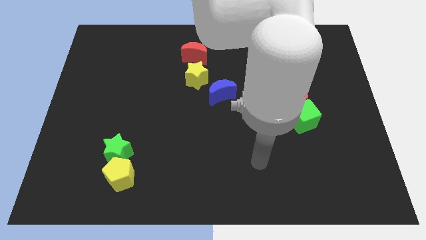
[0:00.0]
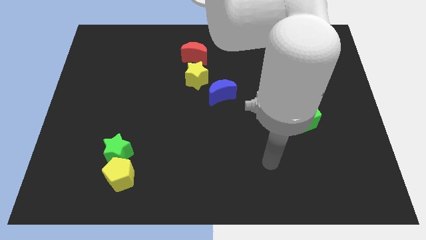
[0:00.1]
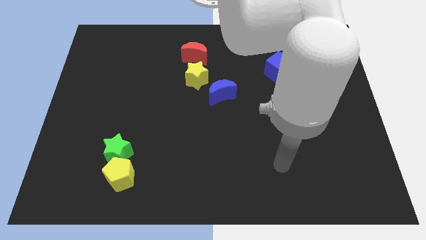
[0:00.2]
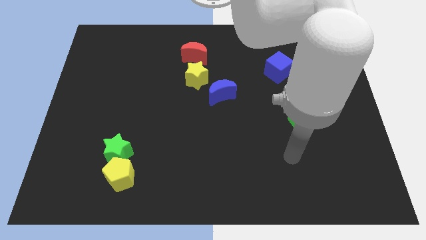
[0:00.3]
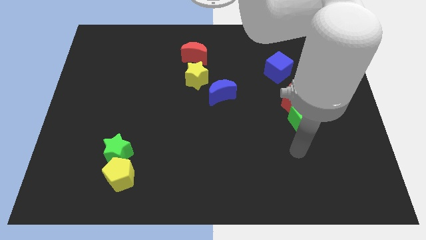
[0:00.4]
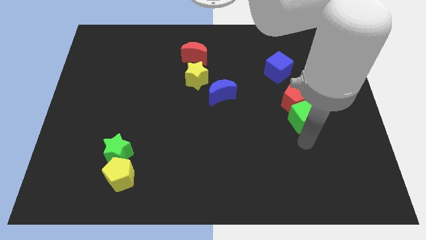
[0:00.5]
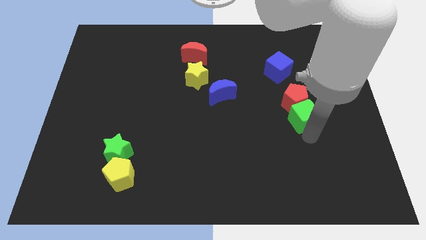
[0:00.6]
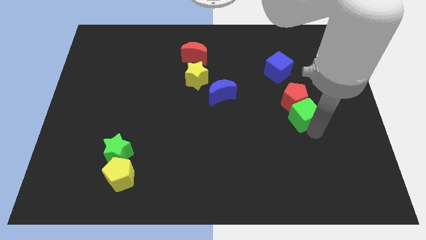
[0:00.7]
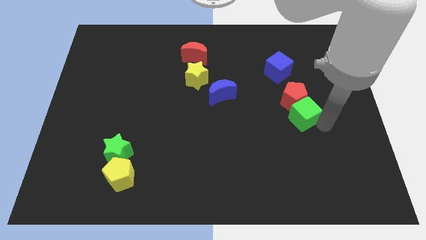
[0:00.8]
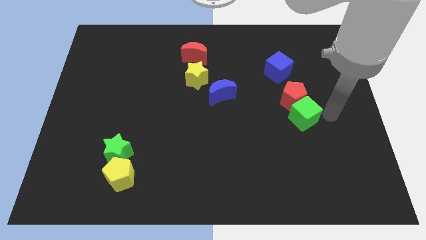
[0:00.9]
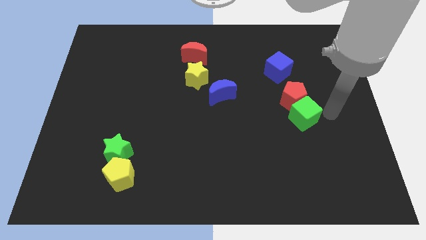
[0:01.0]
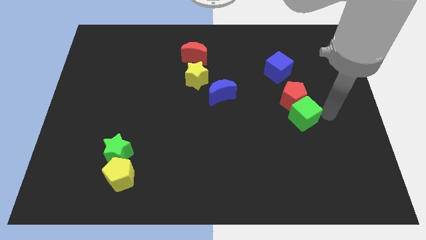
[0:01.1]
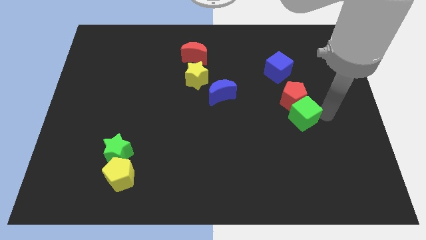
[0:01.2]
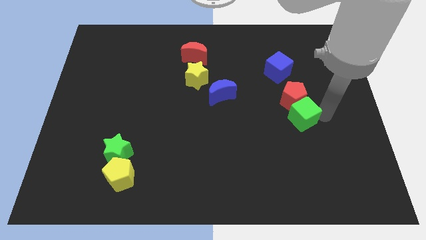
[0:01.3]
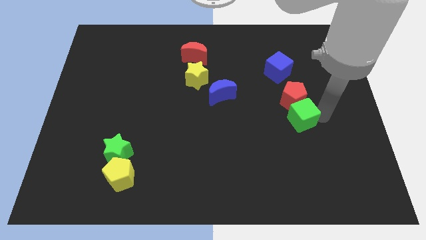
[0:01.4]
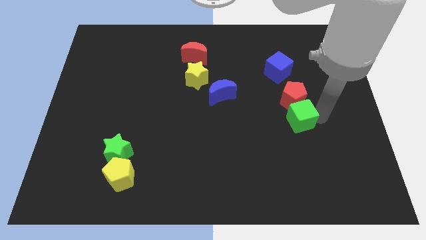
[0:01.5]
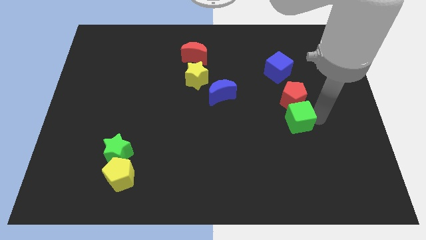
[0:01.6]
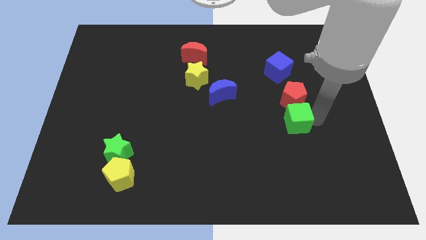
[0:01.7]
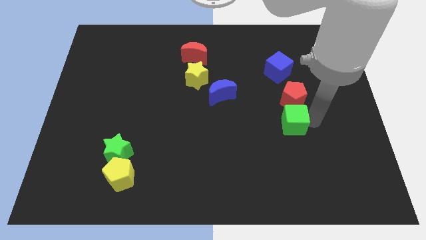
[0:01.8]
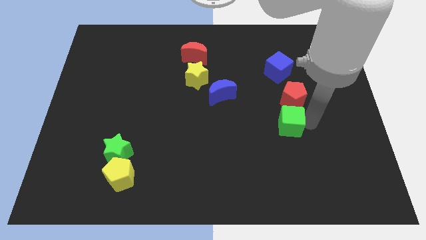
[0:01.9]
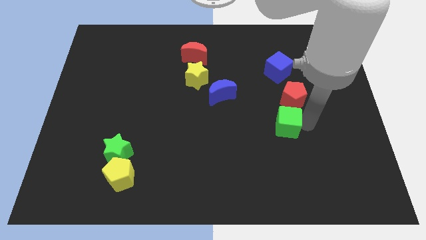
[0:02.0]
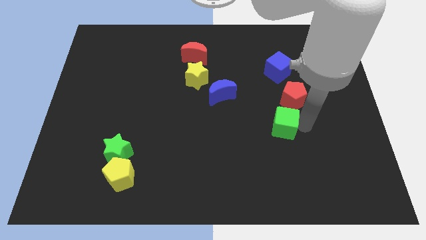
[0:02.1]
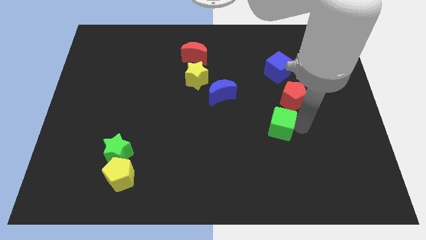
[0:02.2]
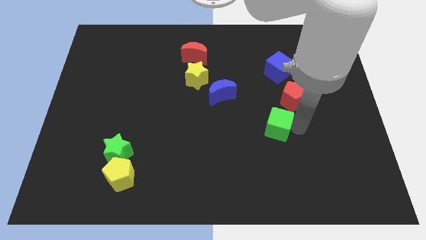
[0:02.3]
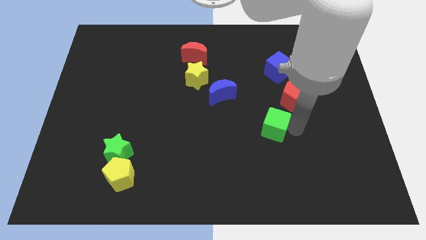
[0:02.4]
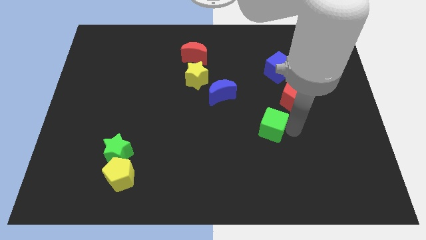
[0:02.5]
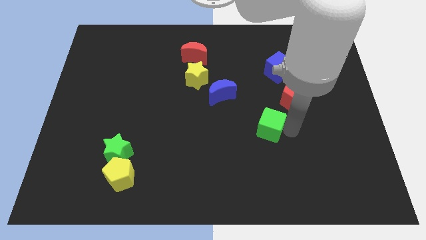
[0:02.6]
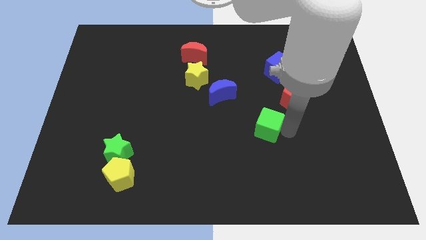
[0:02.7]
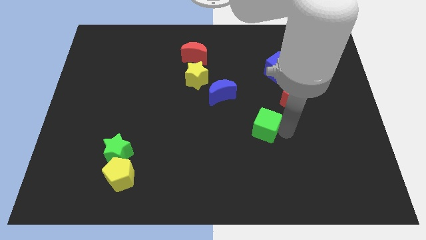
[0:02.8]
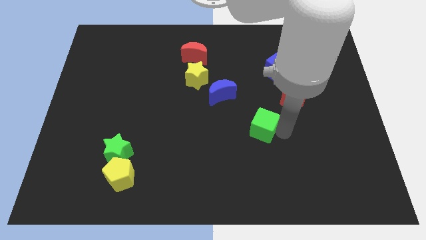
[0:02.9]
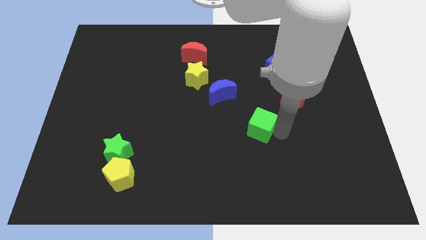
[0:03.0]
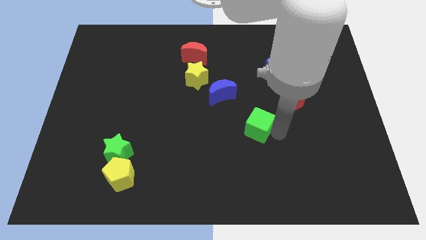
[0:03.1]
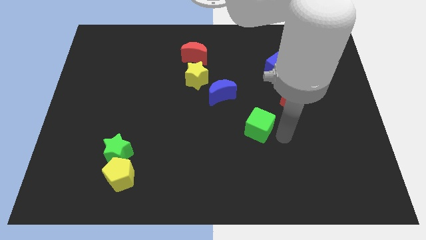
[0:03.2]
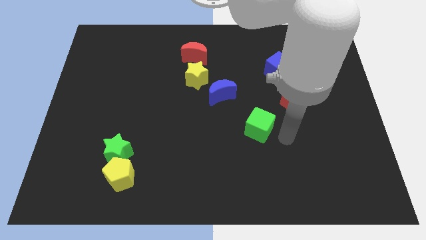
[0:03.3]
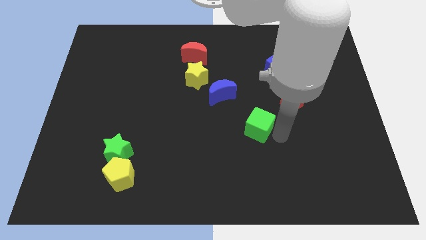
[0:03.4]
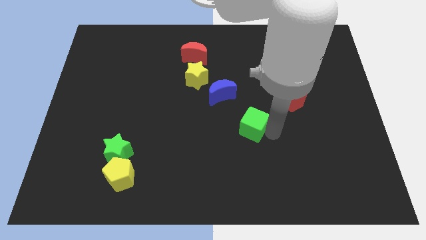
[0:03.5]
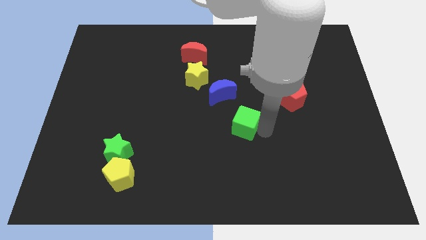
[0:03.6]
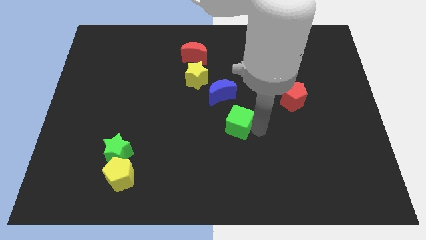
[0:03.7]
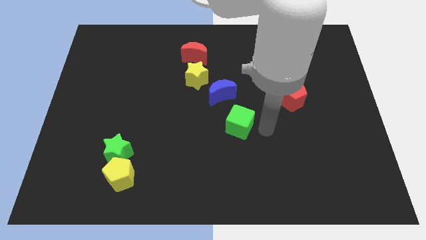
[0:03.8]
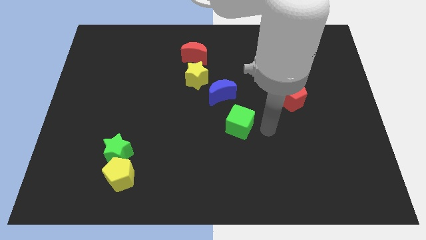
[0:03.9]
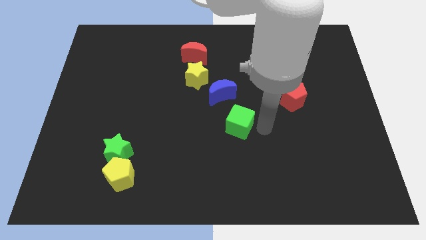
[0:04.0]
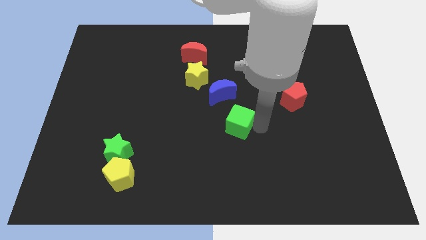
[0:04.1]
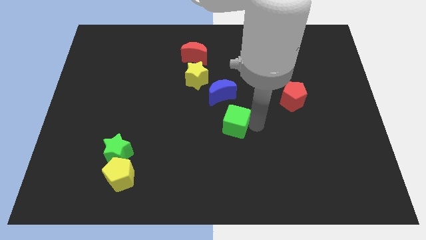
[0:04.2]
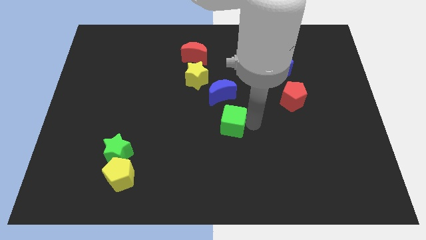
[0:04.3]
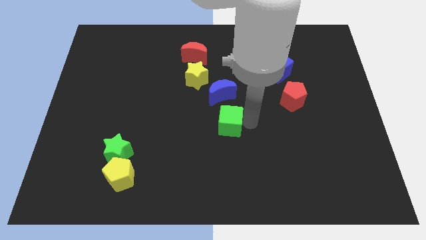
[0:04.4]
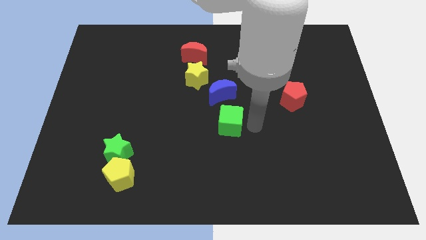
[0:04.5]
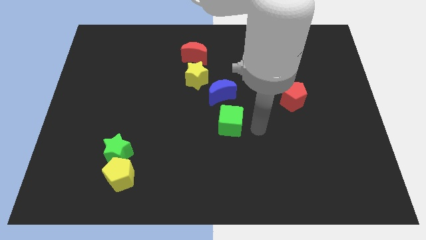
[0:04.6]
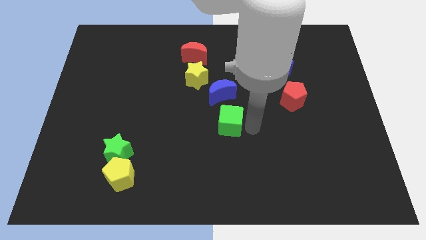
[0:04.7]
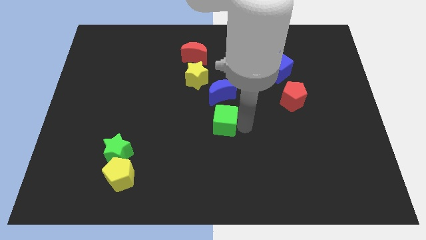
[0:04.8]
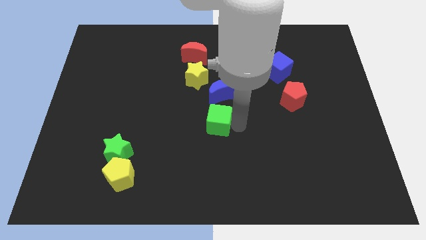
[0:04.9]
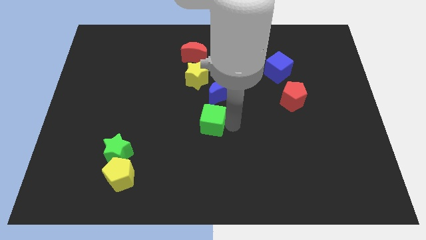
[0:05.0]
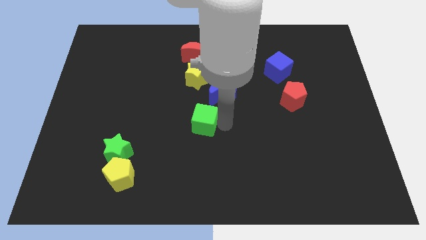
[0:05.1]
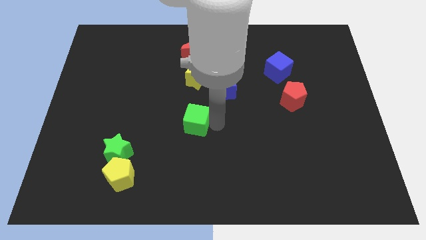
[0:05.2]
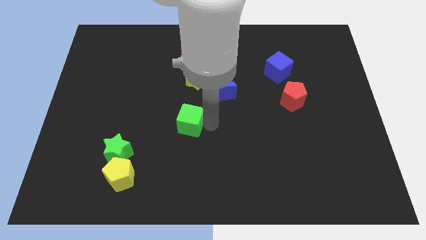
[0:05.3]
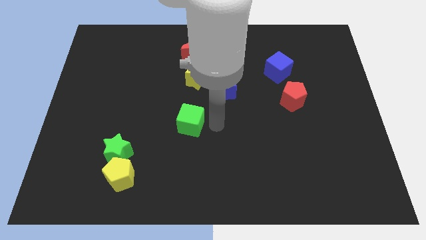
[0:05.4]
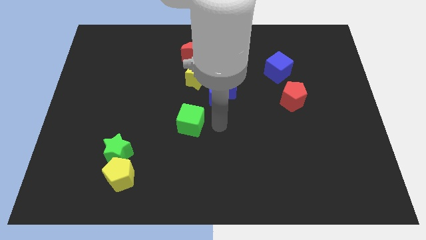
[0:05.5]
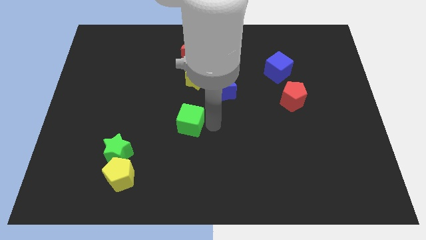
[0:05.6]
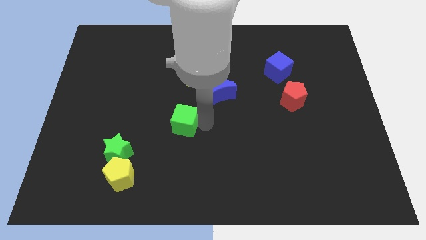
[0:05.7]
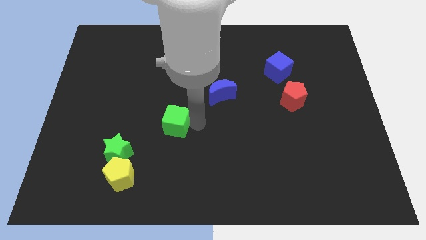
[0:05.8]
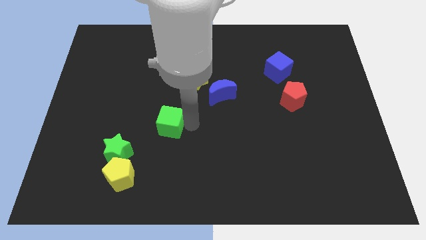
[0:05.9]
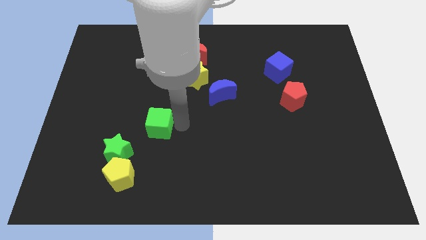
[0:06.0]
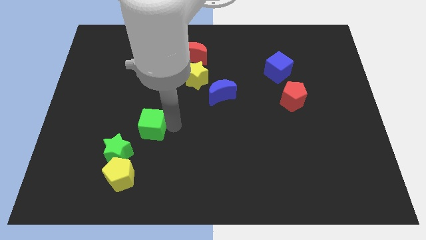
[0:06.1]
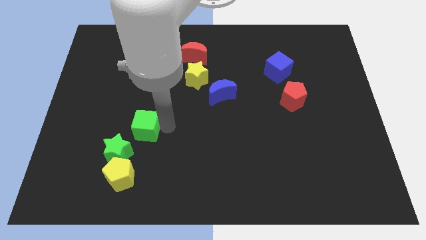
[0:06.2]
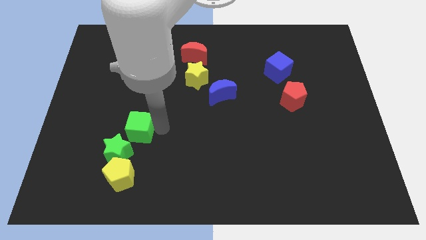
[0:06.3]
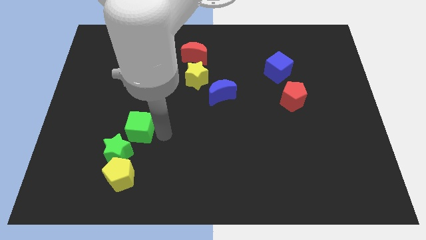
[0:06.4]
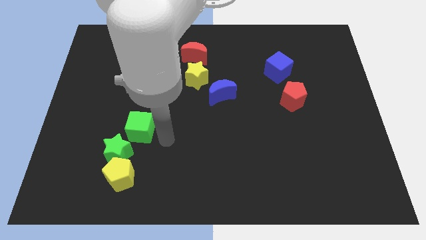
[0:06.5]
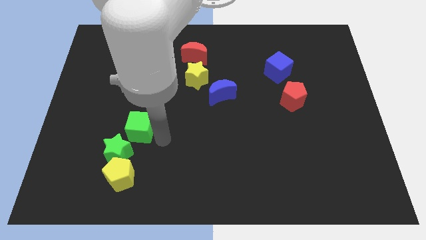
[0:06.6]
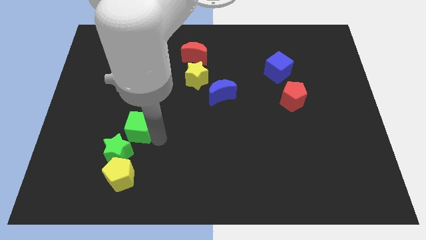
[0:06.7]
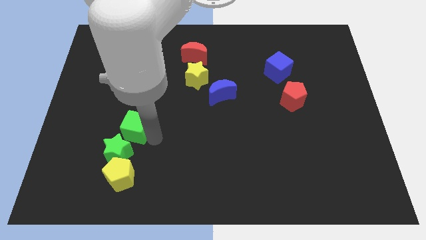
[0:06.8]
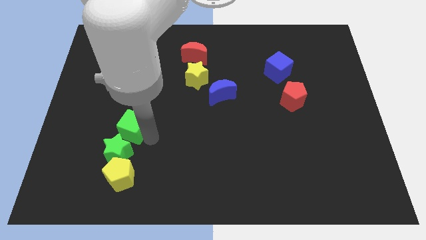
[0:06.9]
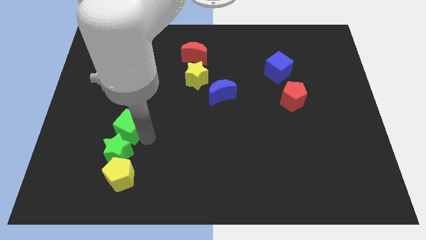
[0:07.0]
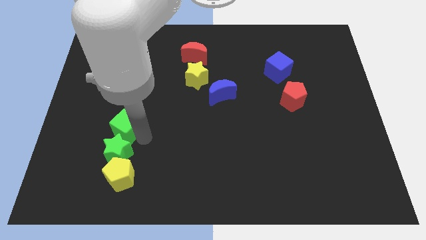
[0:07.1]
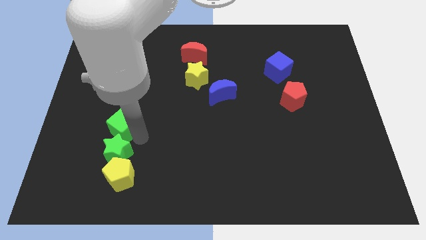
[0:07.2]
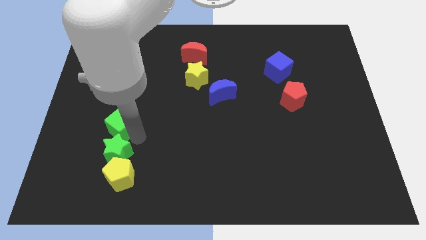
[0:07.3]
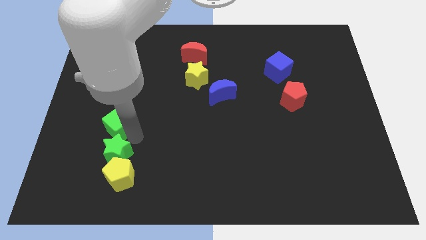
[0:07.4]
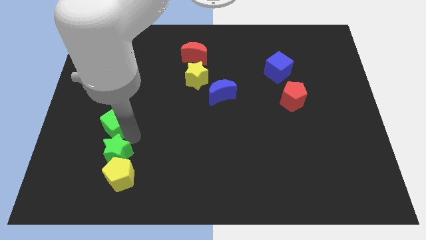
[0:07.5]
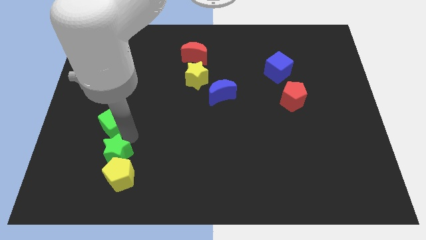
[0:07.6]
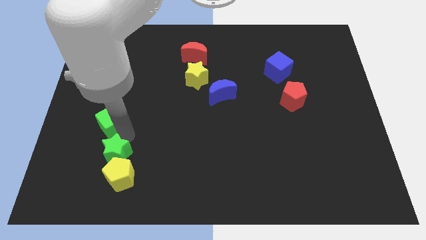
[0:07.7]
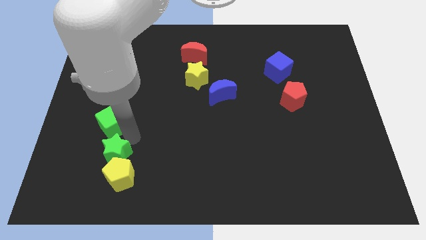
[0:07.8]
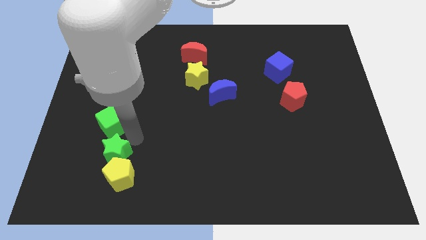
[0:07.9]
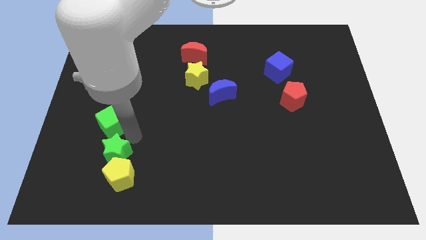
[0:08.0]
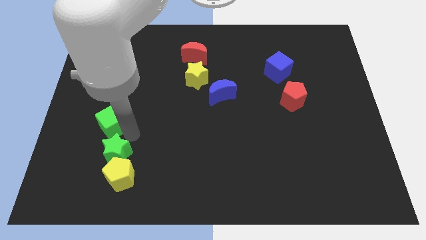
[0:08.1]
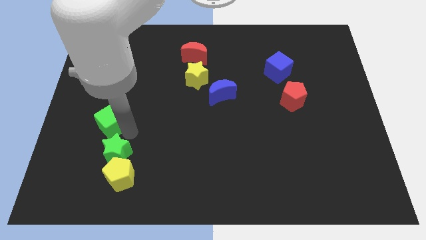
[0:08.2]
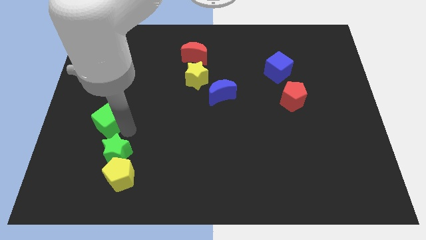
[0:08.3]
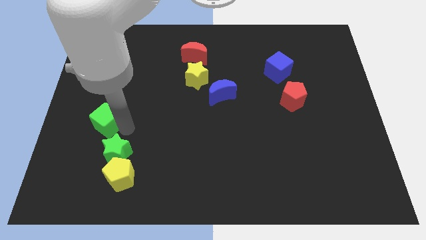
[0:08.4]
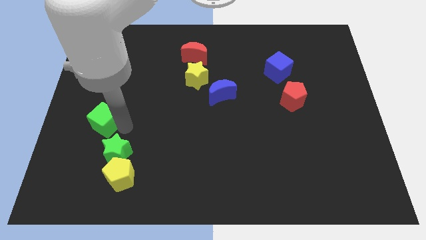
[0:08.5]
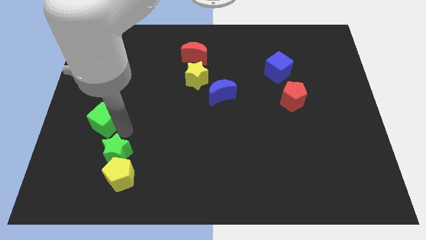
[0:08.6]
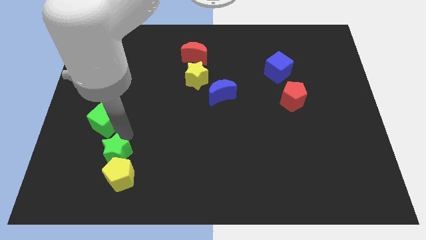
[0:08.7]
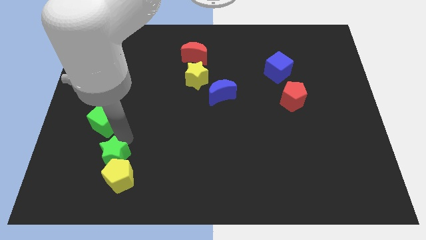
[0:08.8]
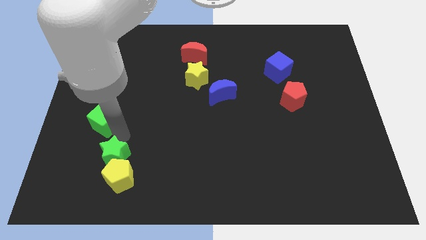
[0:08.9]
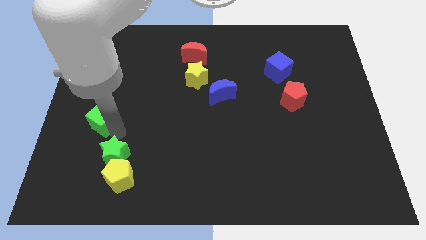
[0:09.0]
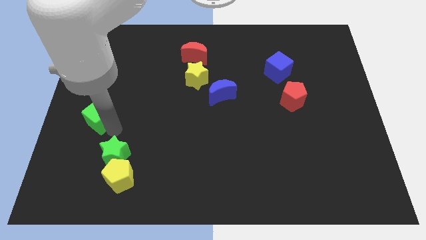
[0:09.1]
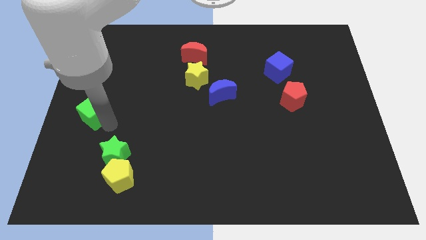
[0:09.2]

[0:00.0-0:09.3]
move the green cube to the center left
